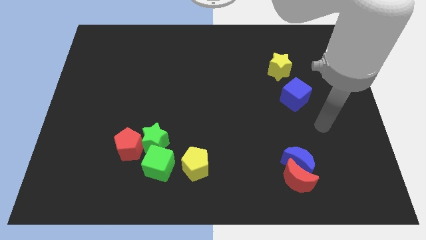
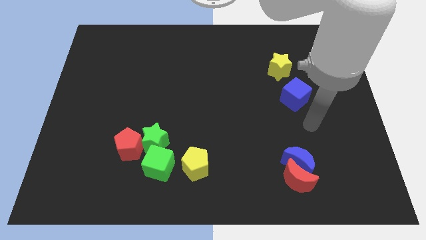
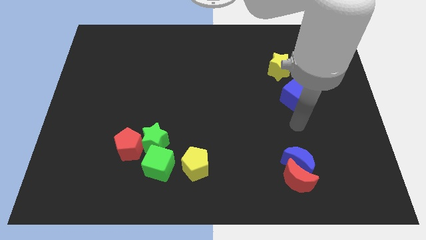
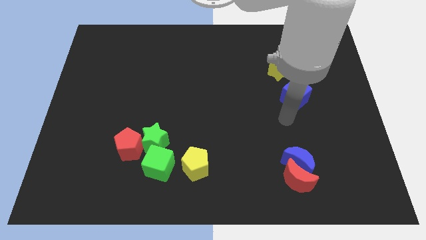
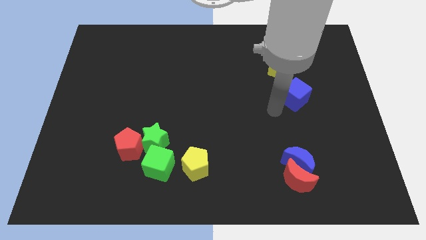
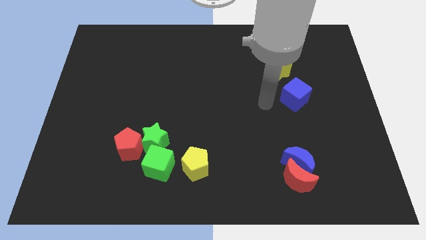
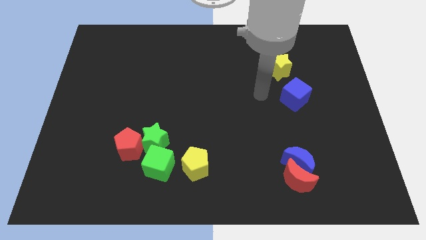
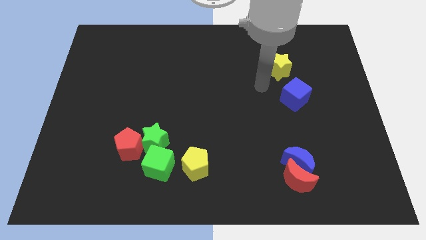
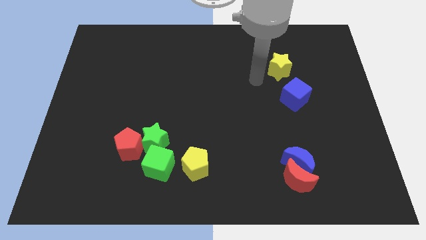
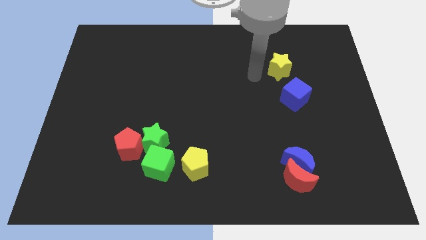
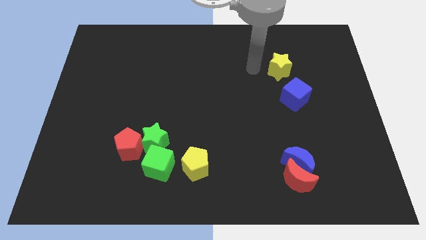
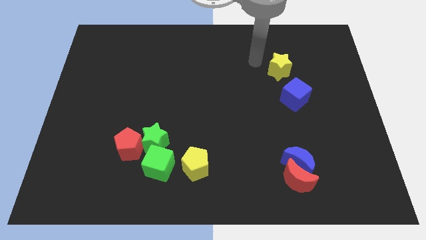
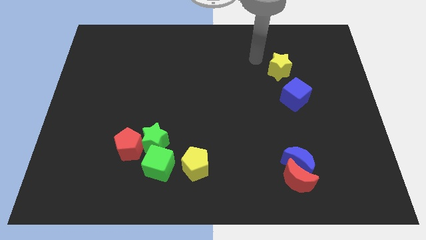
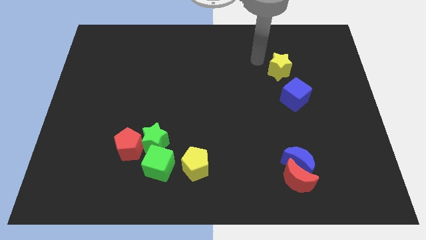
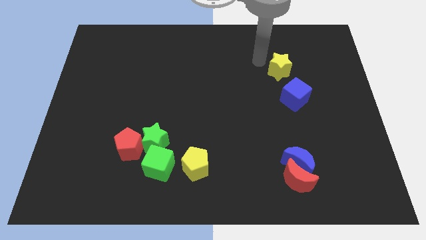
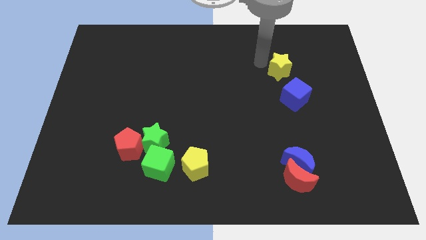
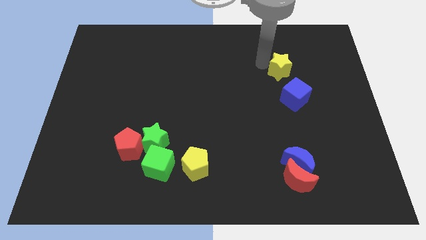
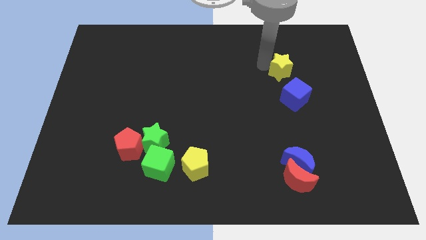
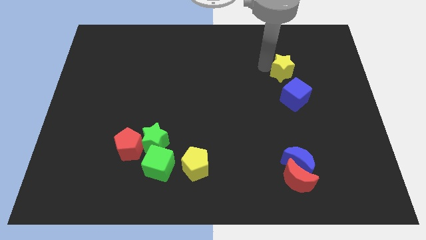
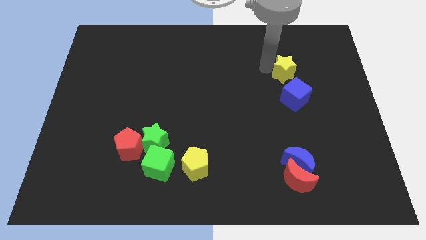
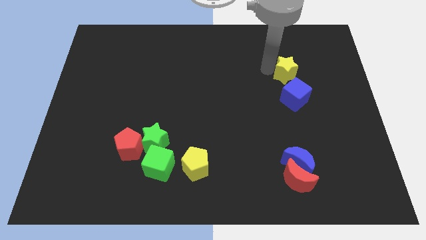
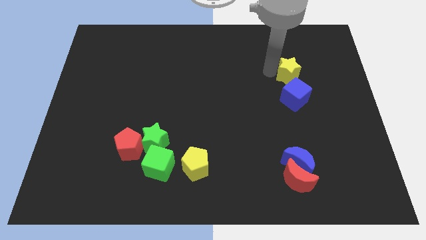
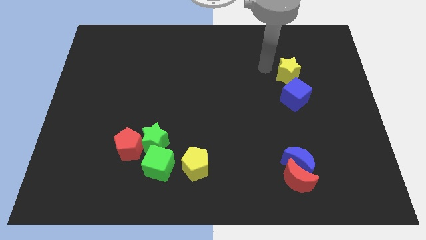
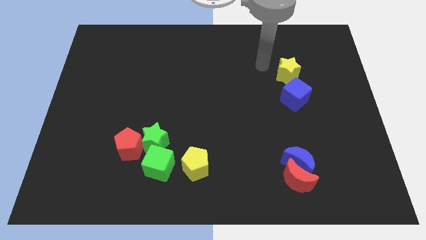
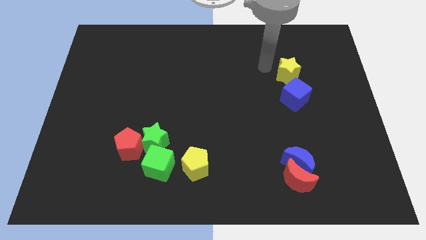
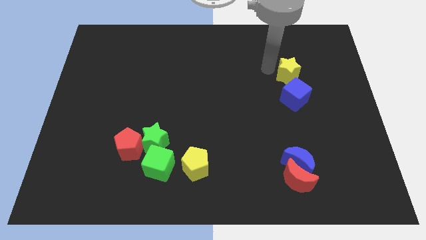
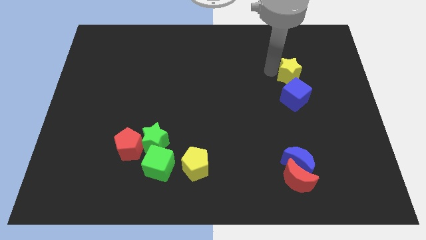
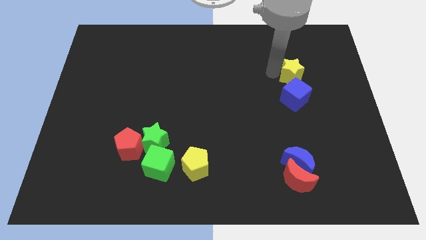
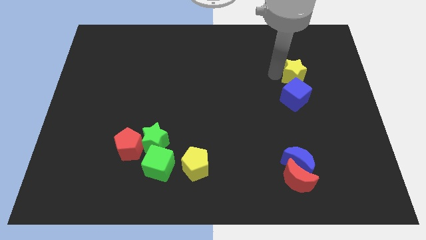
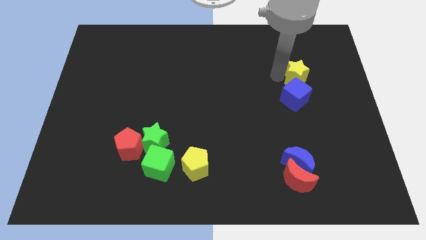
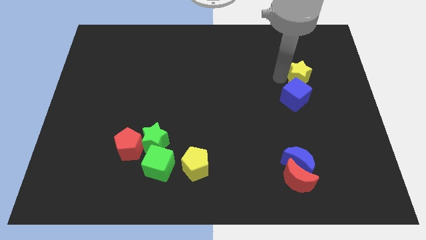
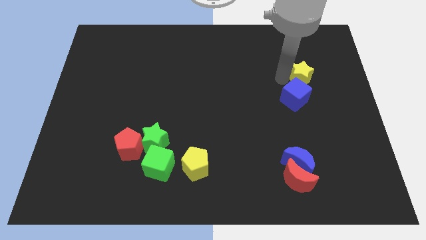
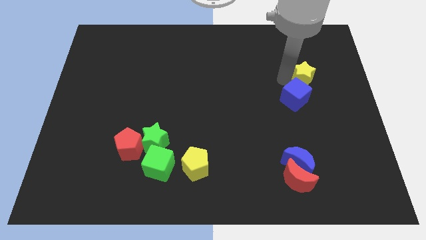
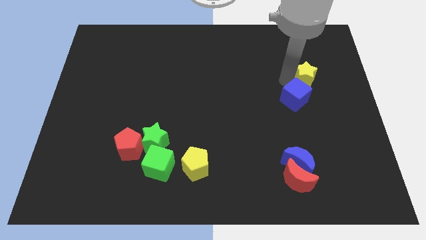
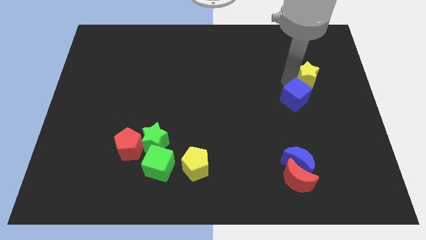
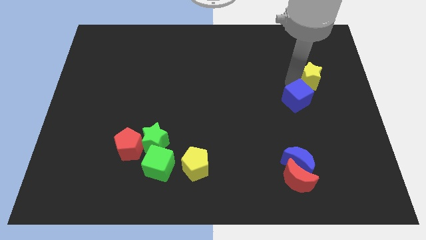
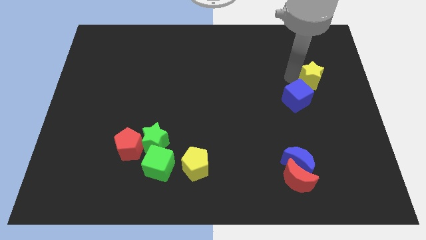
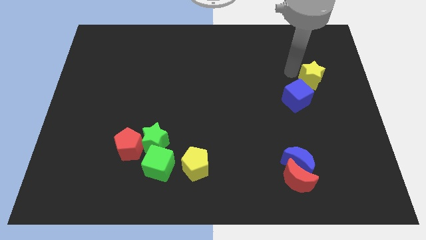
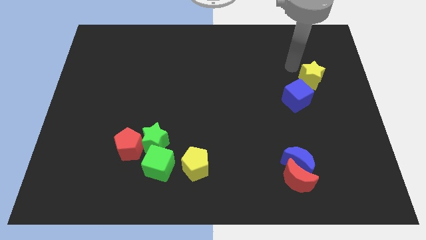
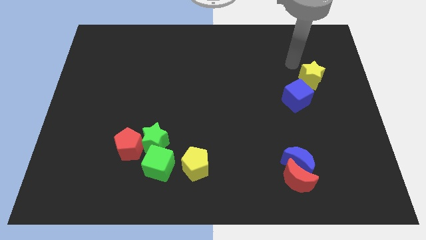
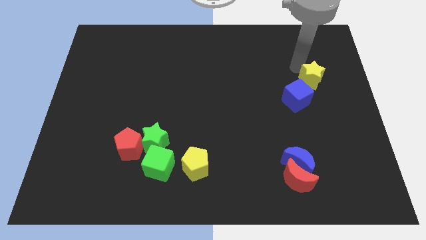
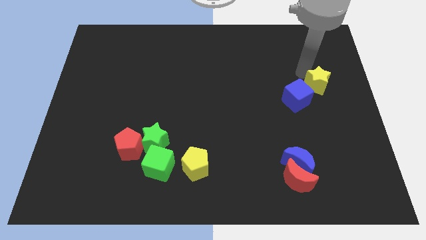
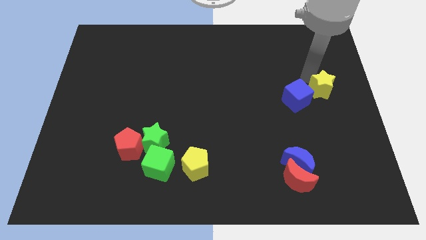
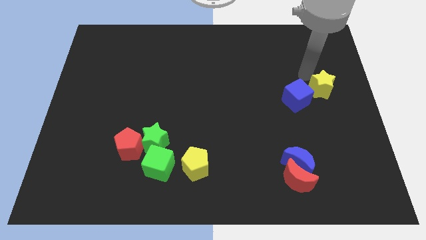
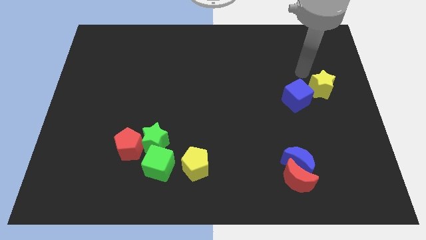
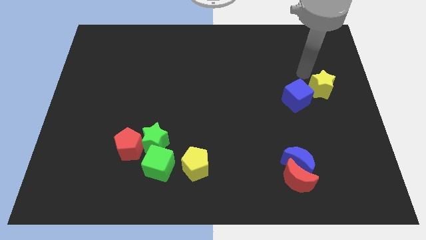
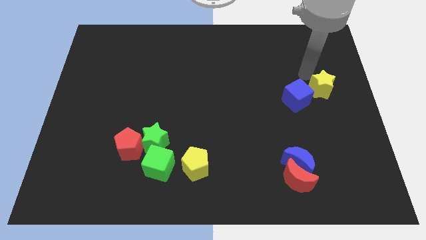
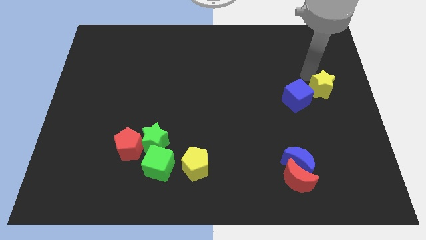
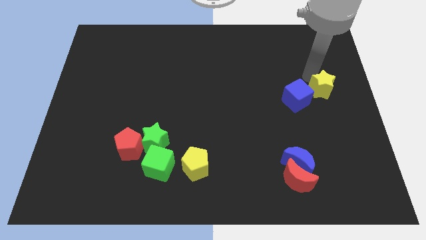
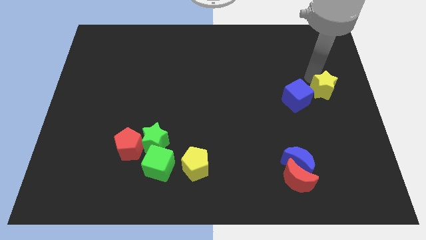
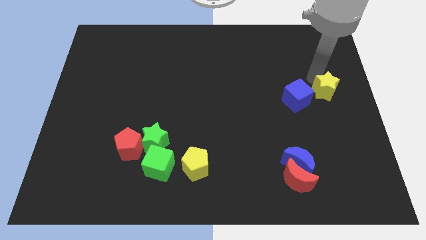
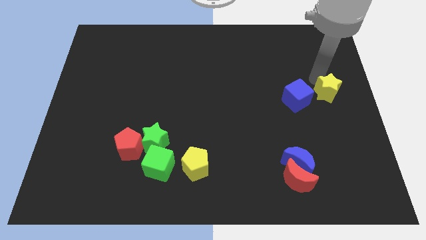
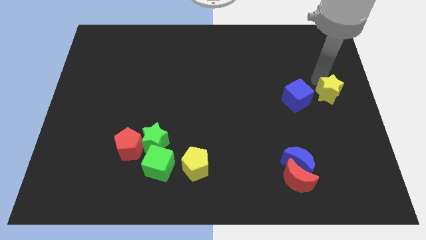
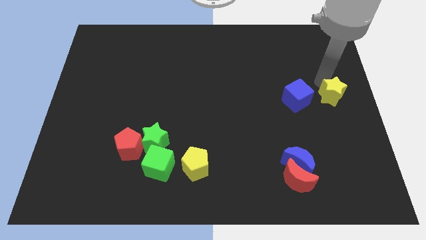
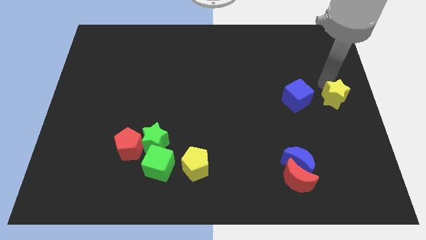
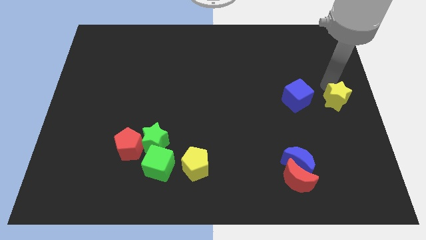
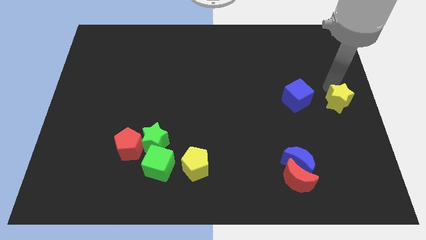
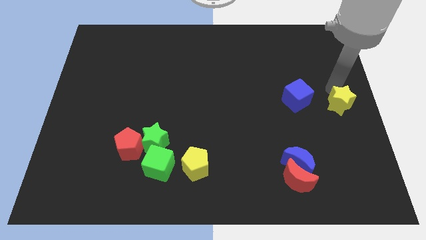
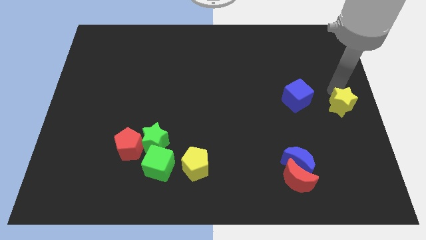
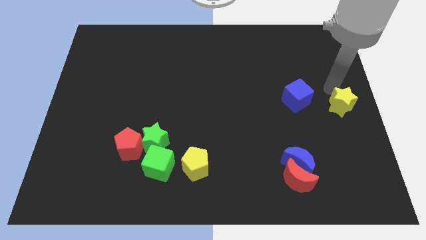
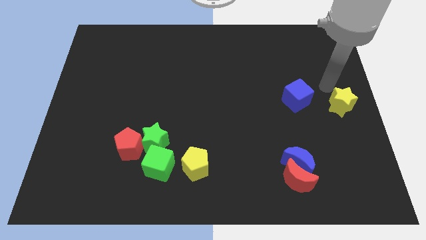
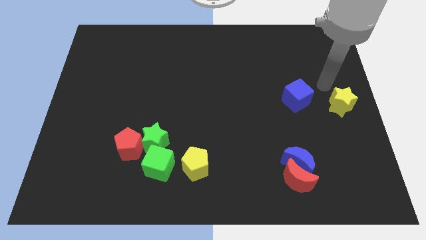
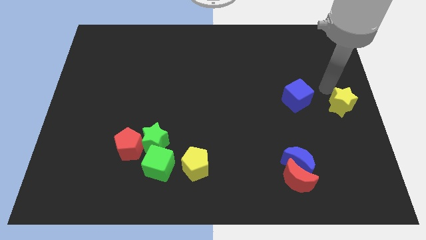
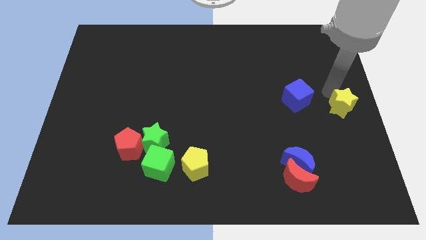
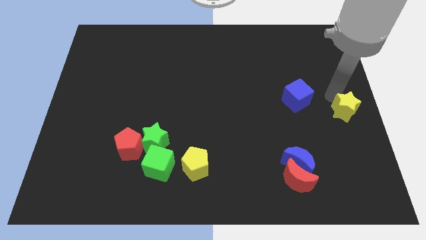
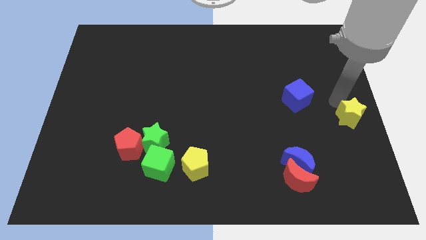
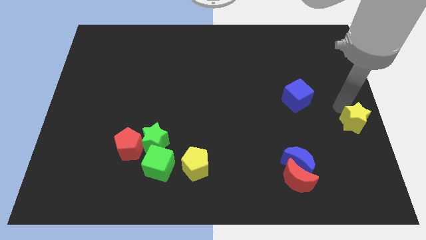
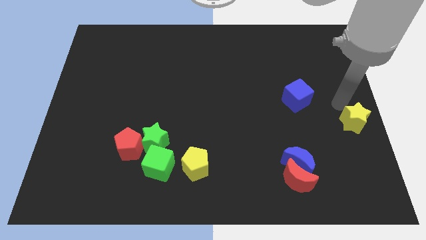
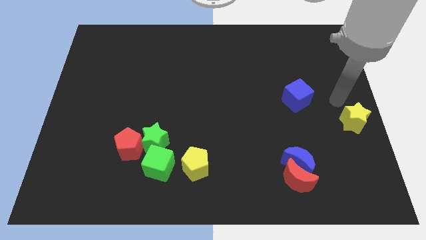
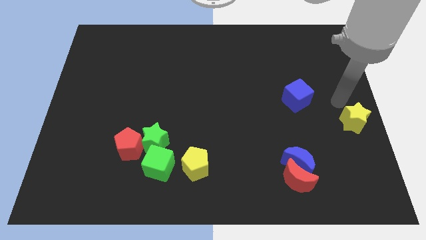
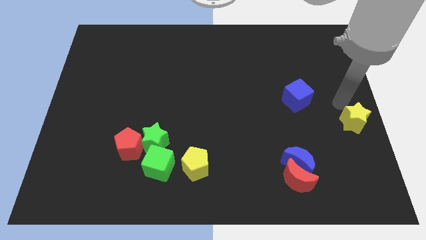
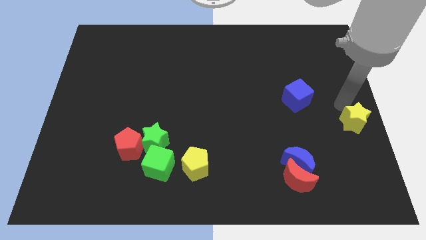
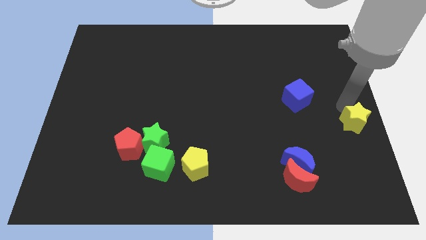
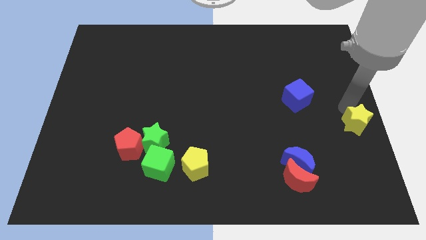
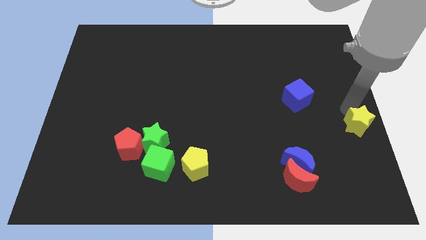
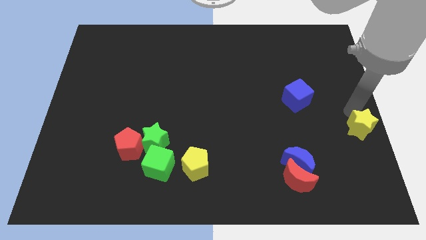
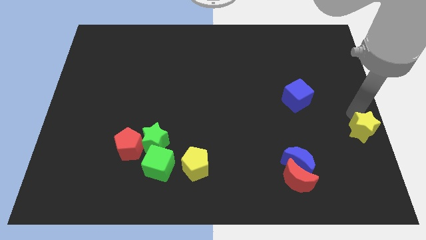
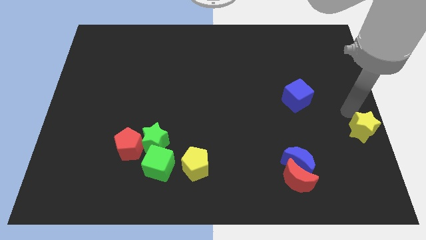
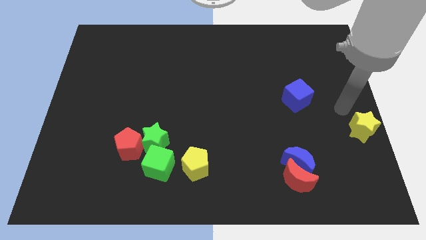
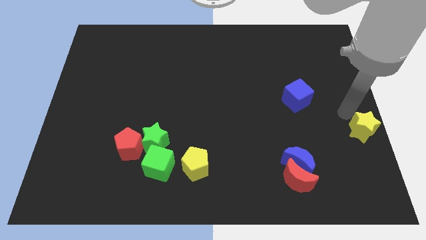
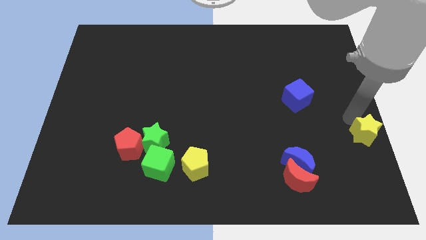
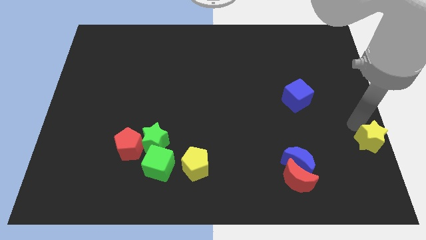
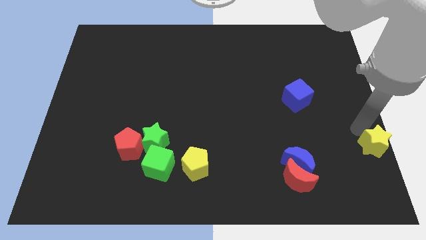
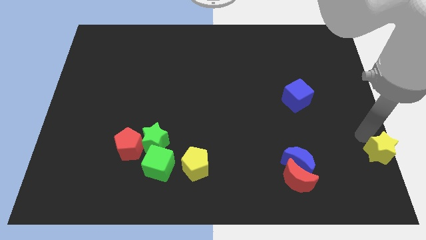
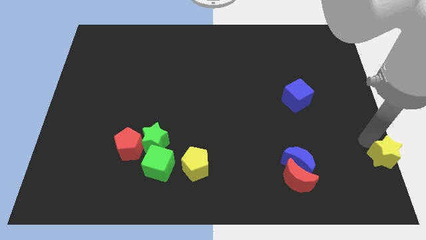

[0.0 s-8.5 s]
put the yellow star to the bottom right corner
